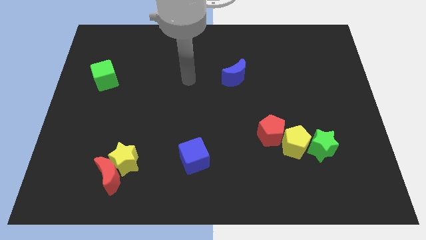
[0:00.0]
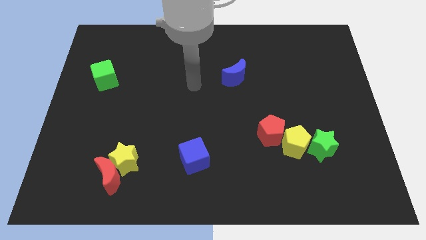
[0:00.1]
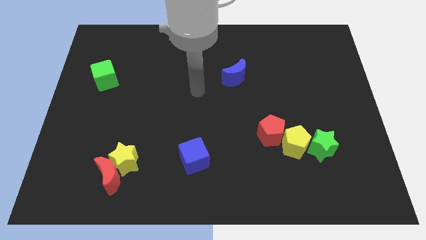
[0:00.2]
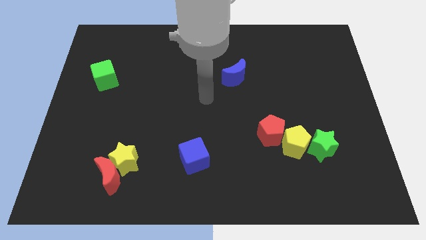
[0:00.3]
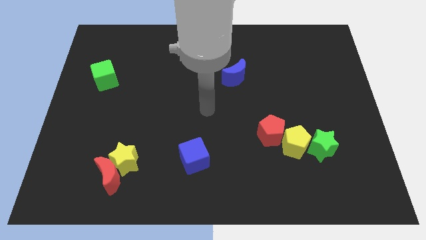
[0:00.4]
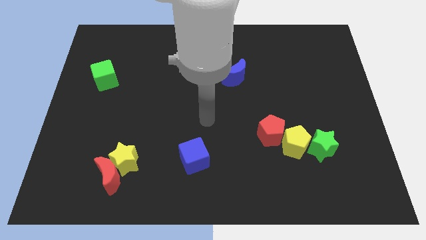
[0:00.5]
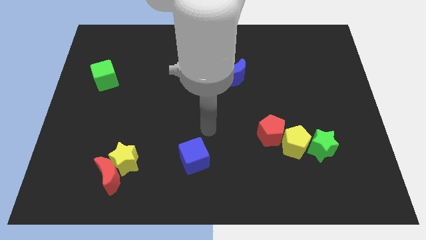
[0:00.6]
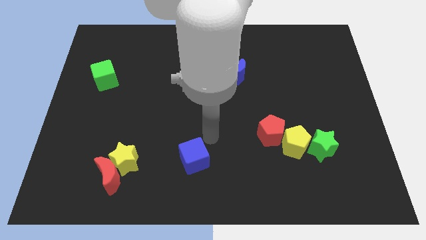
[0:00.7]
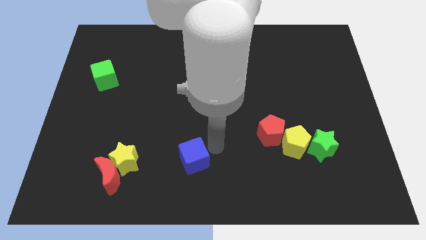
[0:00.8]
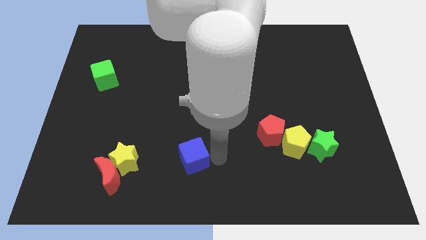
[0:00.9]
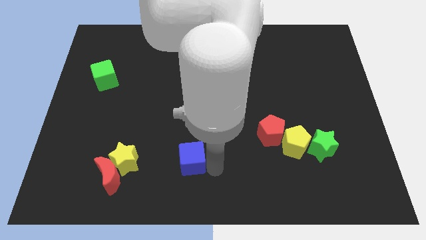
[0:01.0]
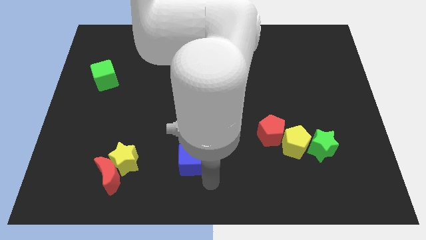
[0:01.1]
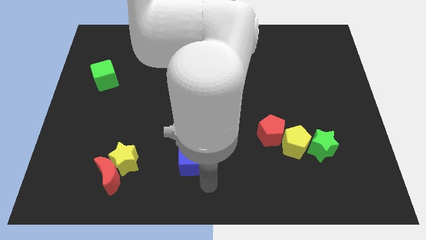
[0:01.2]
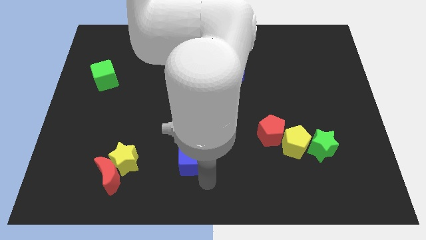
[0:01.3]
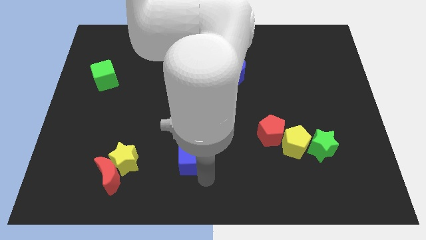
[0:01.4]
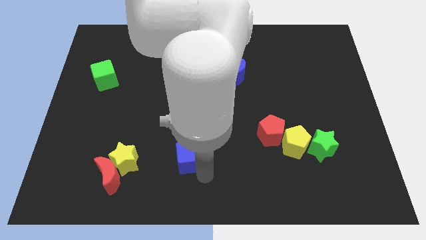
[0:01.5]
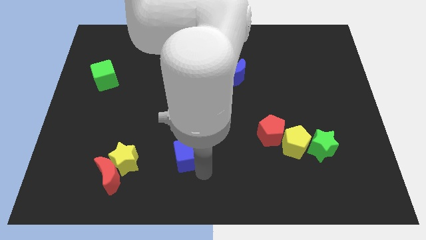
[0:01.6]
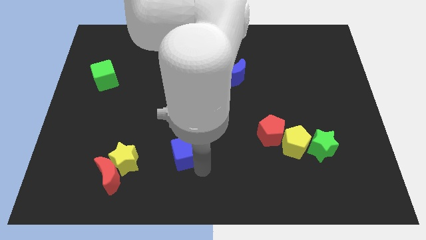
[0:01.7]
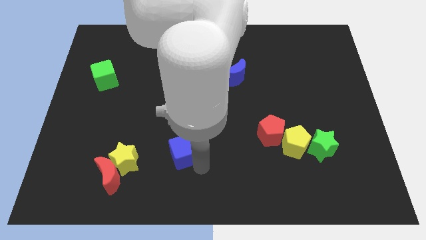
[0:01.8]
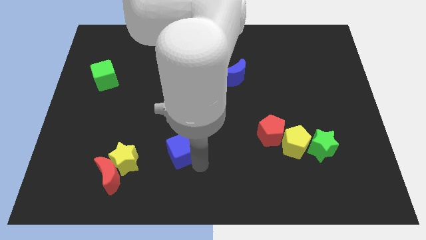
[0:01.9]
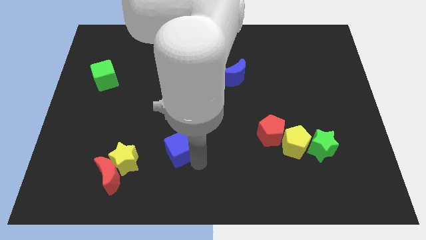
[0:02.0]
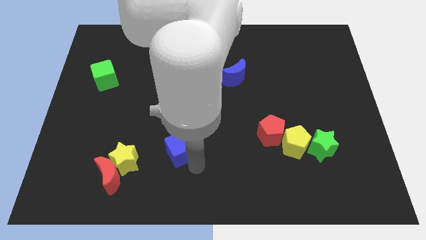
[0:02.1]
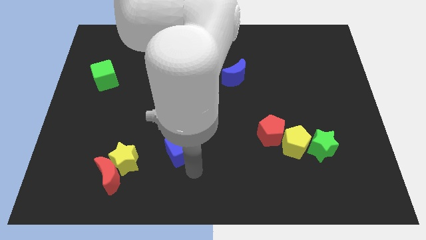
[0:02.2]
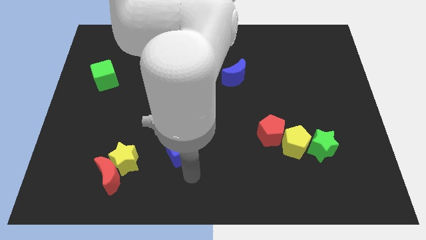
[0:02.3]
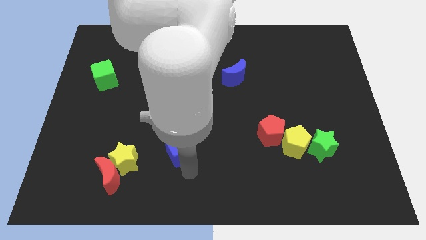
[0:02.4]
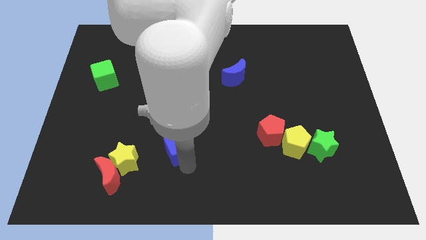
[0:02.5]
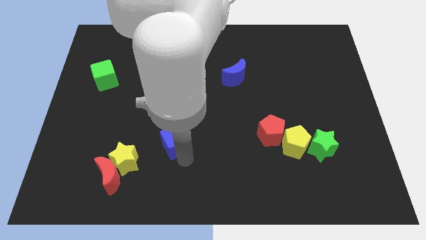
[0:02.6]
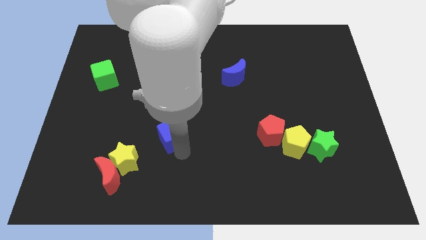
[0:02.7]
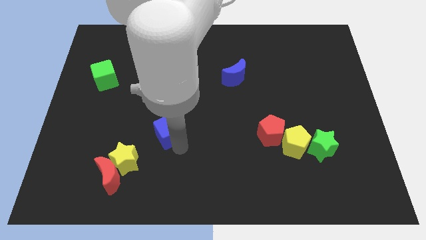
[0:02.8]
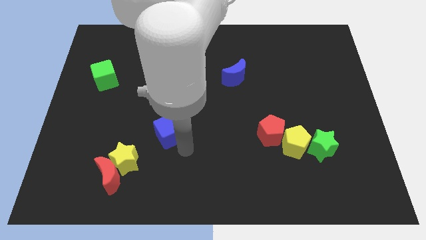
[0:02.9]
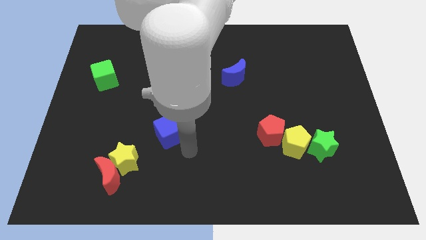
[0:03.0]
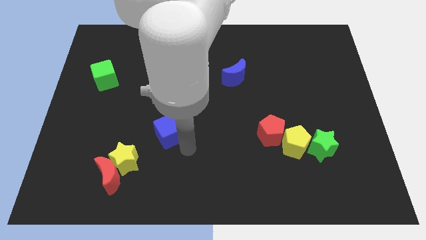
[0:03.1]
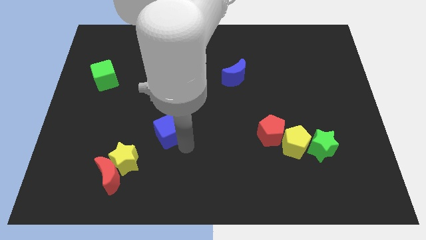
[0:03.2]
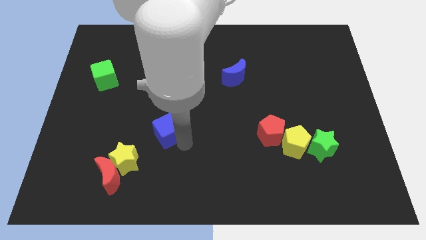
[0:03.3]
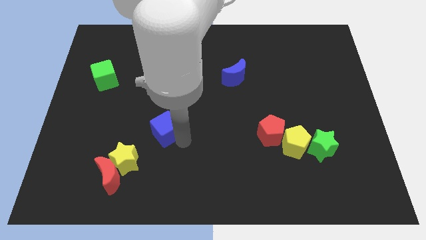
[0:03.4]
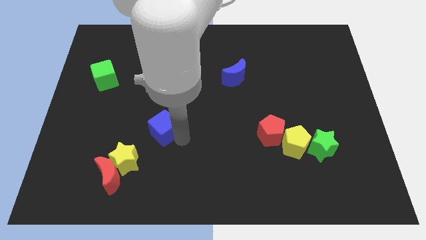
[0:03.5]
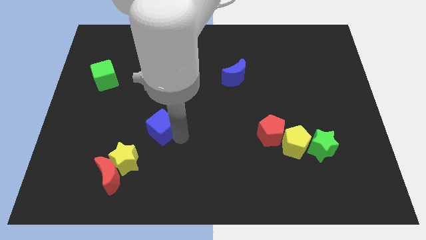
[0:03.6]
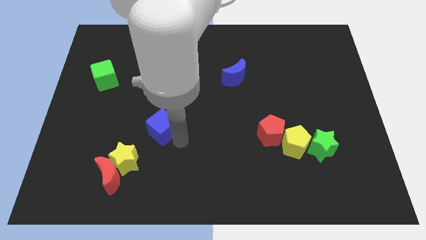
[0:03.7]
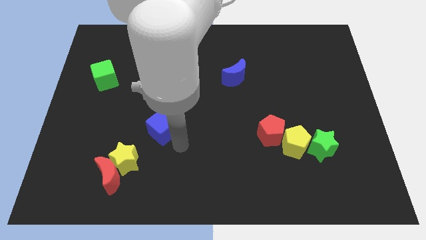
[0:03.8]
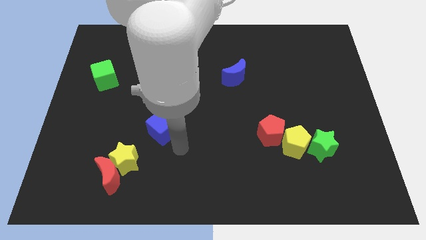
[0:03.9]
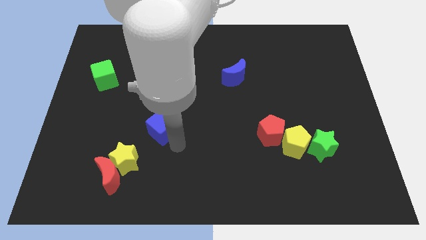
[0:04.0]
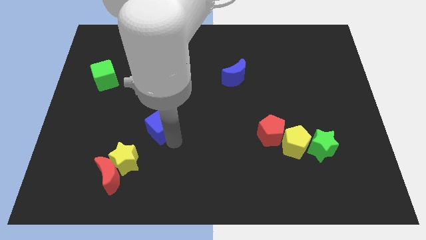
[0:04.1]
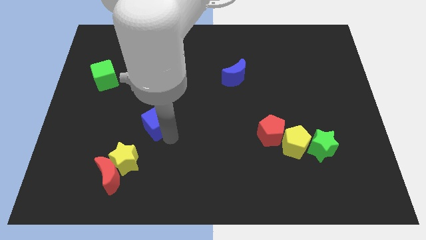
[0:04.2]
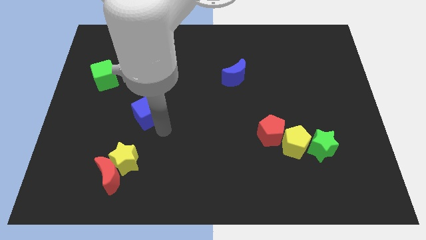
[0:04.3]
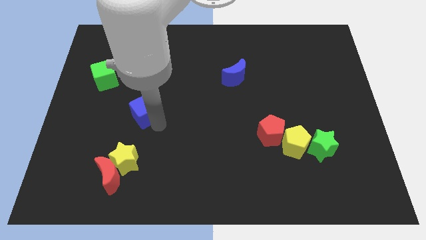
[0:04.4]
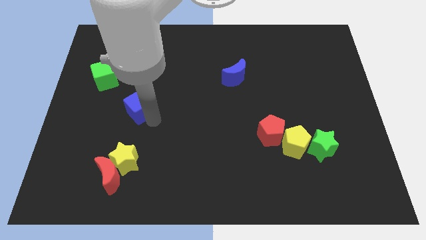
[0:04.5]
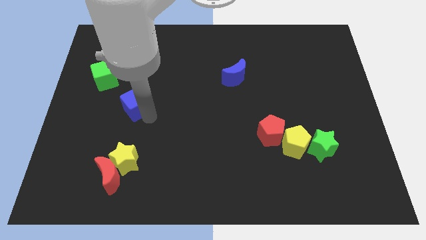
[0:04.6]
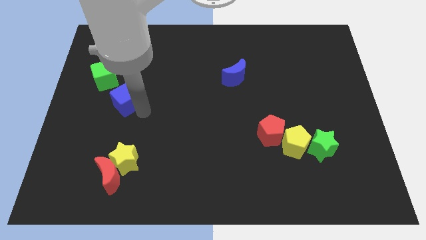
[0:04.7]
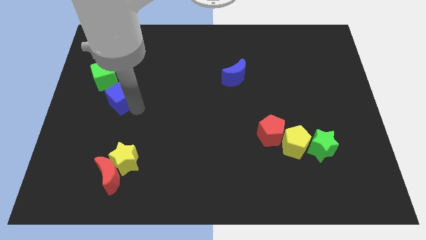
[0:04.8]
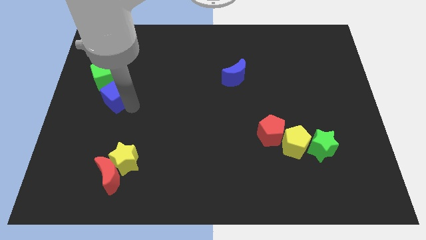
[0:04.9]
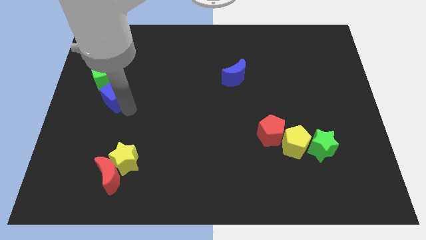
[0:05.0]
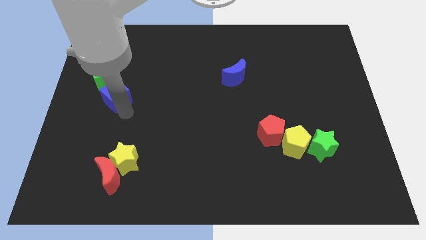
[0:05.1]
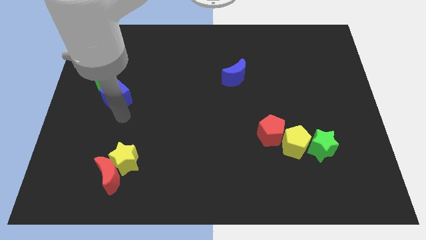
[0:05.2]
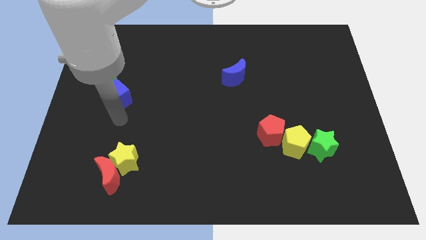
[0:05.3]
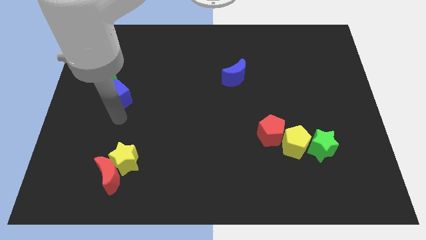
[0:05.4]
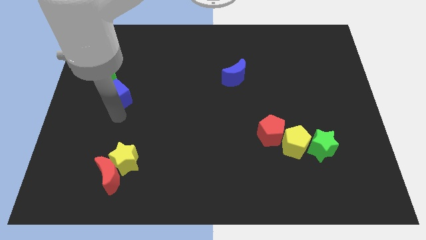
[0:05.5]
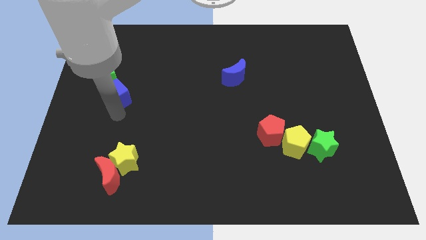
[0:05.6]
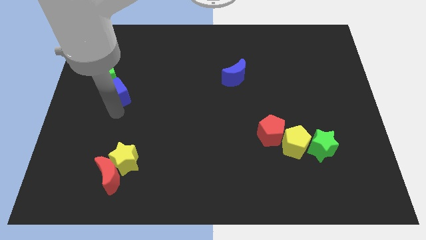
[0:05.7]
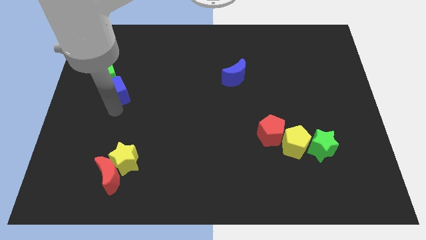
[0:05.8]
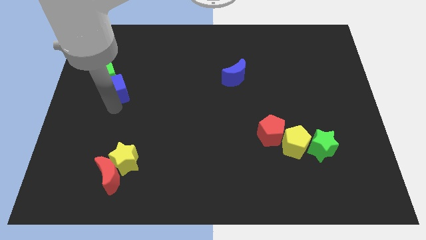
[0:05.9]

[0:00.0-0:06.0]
push the blue cube next to the green cube

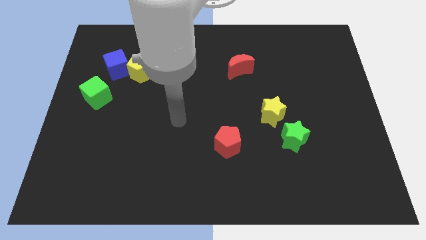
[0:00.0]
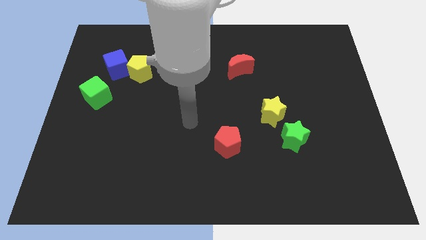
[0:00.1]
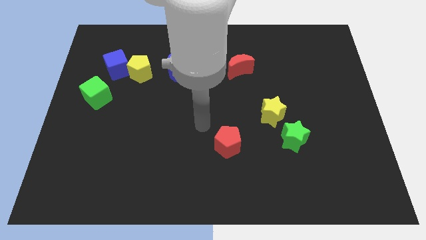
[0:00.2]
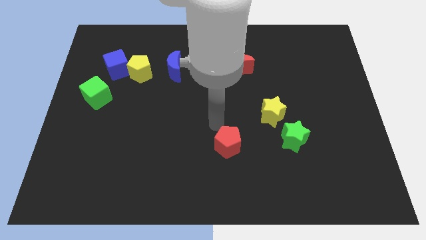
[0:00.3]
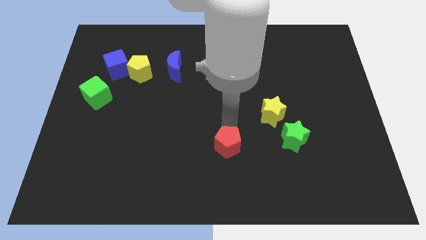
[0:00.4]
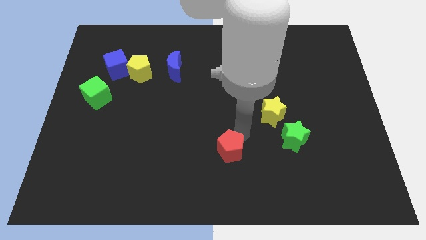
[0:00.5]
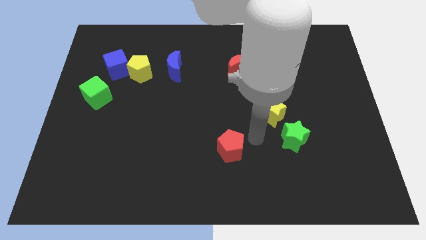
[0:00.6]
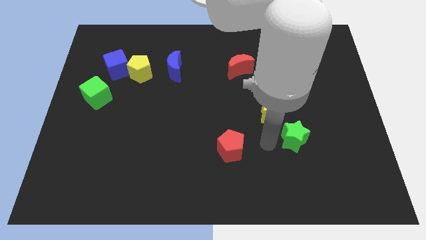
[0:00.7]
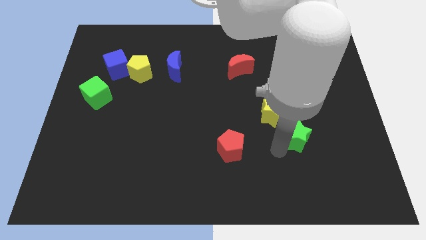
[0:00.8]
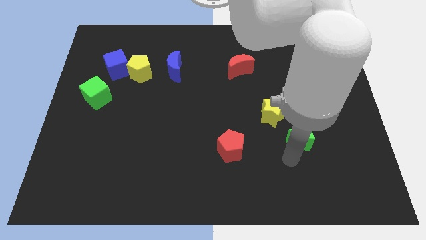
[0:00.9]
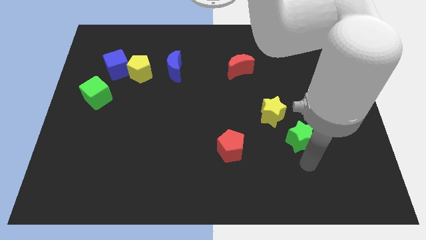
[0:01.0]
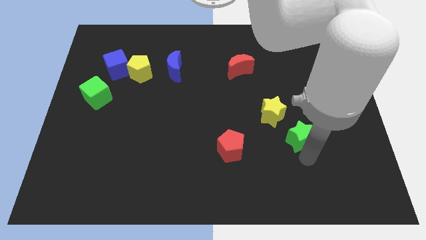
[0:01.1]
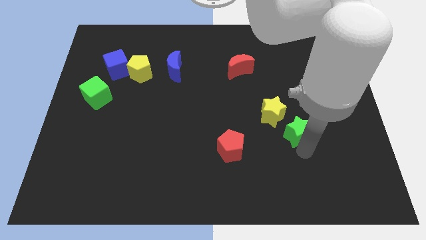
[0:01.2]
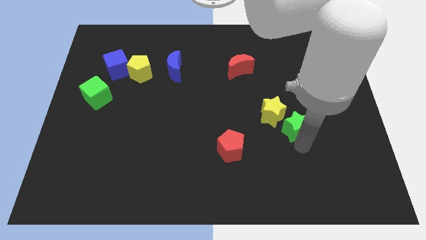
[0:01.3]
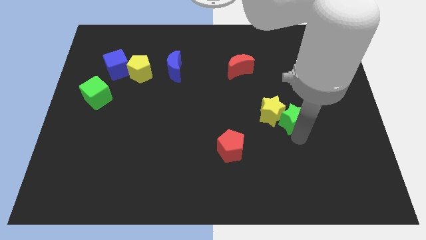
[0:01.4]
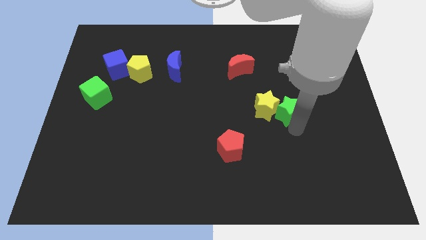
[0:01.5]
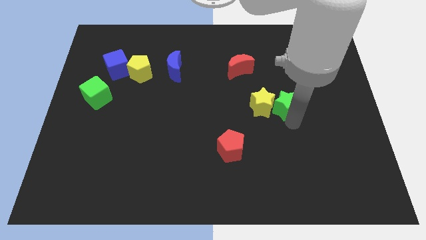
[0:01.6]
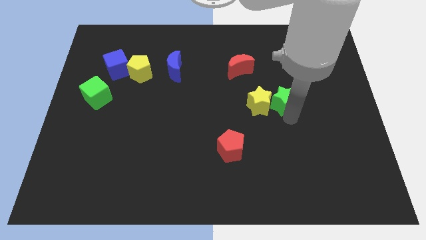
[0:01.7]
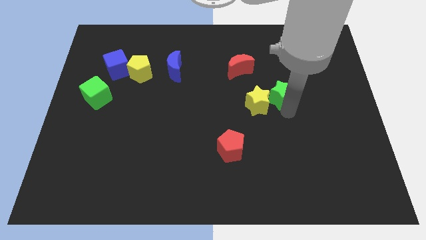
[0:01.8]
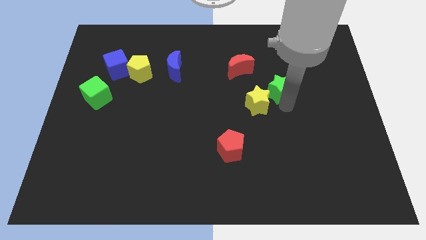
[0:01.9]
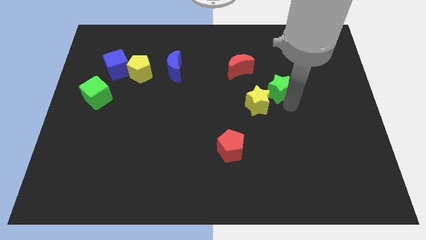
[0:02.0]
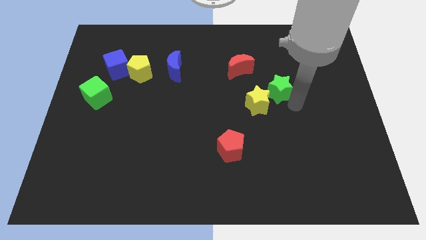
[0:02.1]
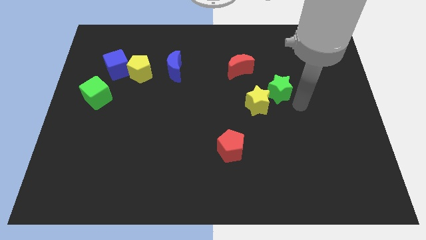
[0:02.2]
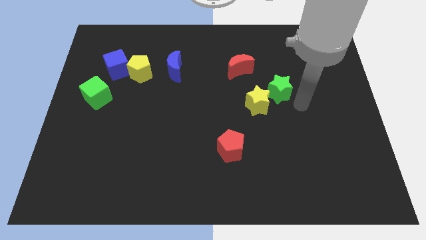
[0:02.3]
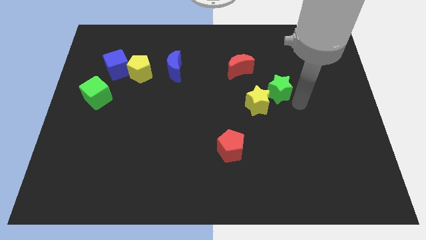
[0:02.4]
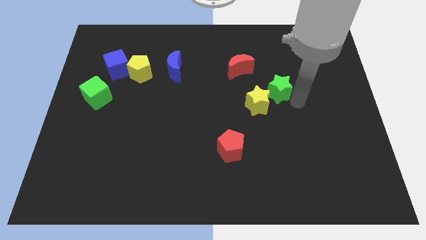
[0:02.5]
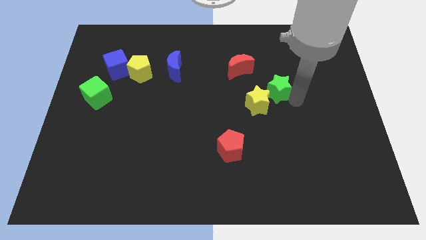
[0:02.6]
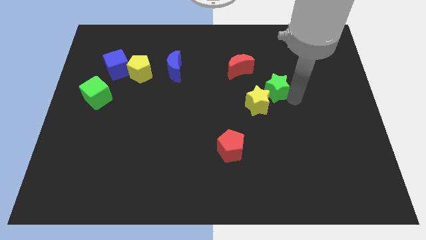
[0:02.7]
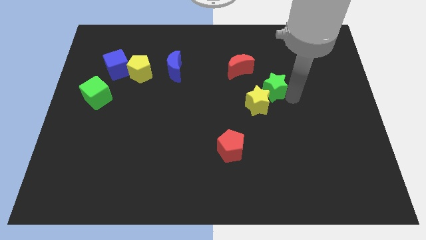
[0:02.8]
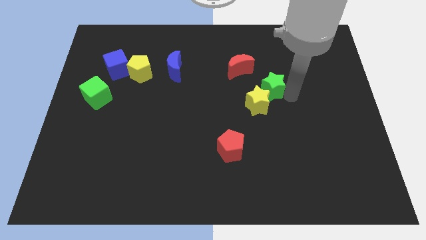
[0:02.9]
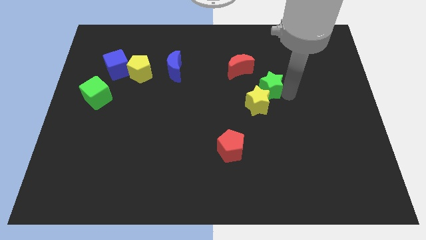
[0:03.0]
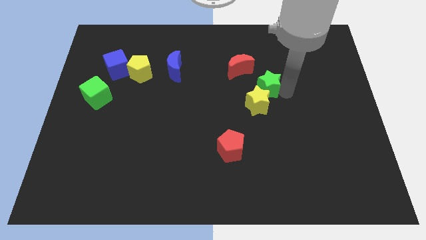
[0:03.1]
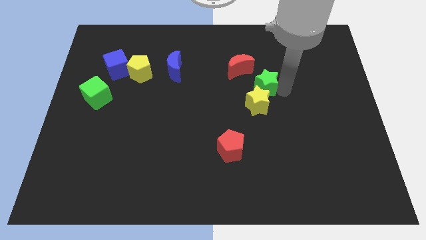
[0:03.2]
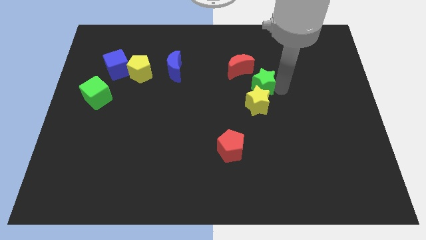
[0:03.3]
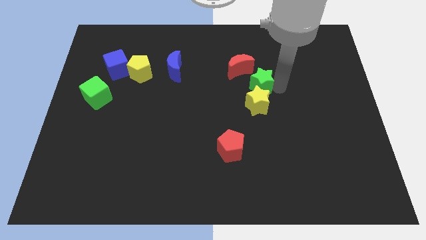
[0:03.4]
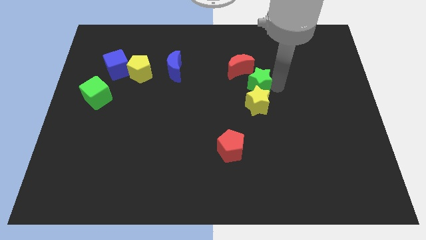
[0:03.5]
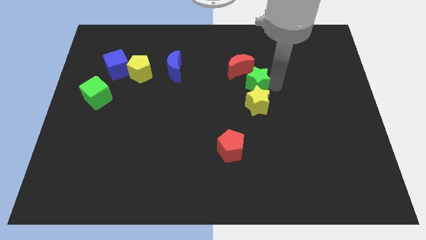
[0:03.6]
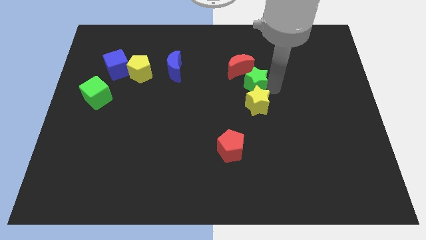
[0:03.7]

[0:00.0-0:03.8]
move the green star to the red moon
